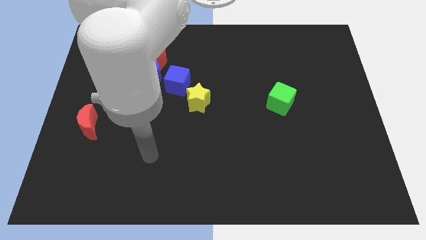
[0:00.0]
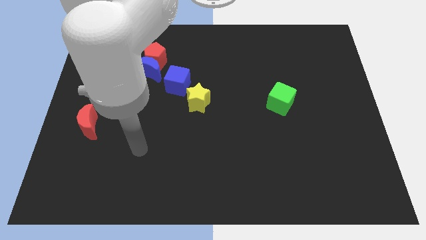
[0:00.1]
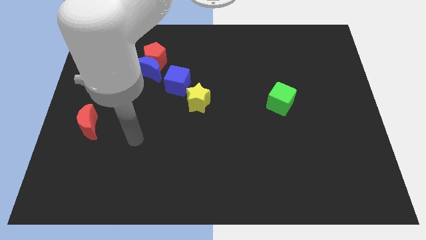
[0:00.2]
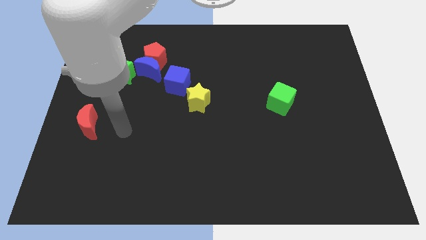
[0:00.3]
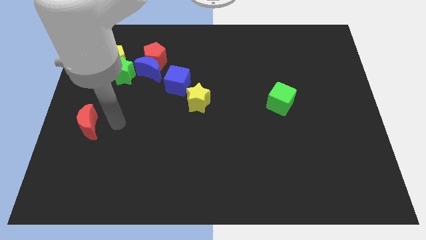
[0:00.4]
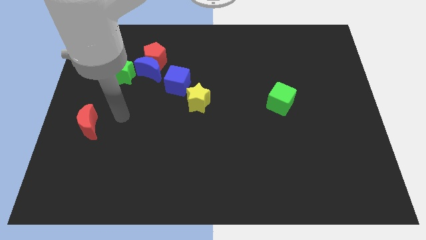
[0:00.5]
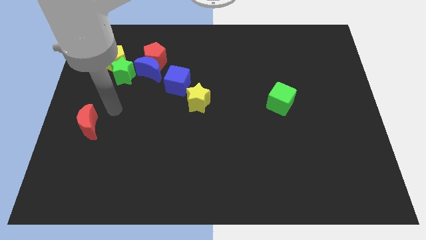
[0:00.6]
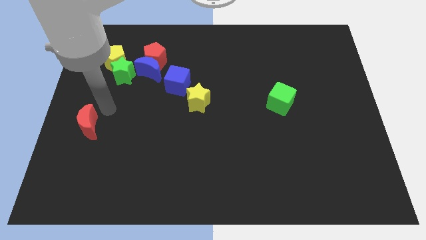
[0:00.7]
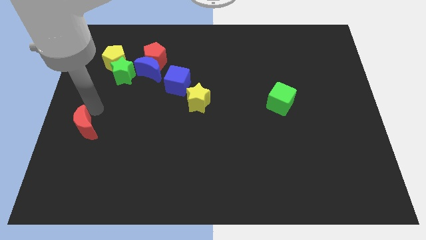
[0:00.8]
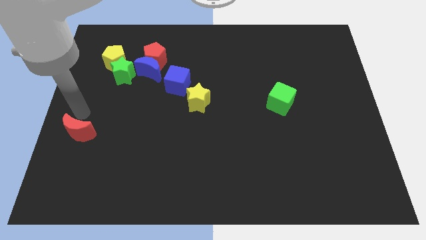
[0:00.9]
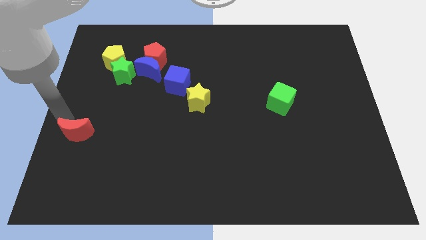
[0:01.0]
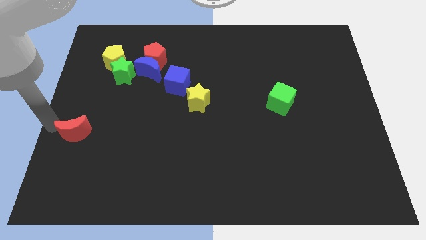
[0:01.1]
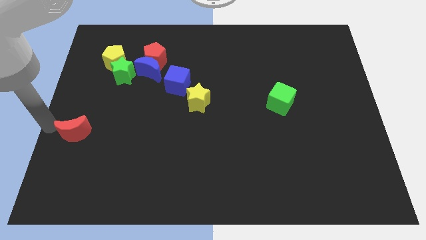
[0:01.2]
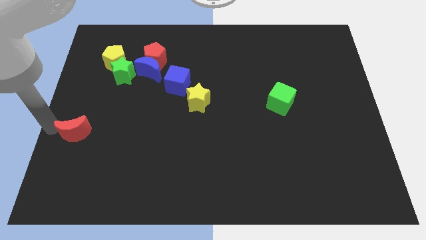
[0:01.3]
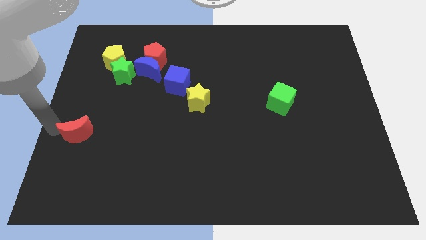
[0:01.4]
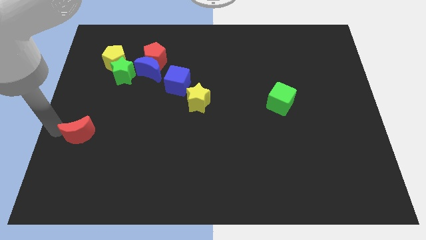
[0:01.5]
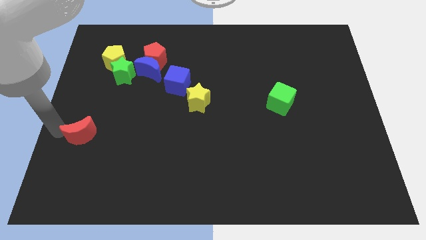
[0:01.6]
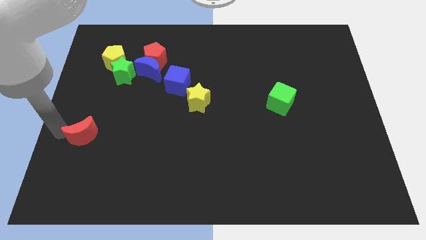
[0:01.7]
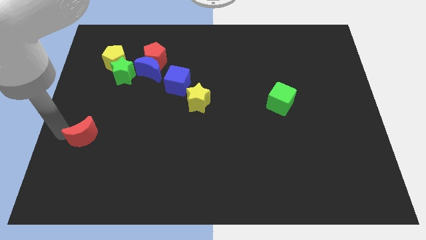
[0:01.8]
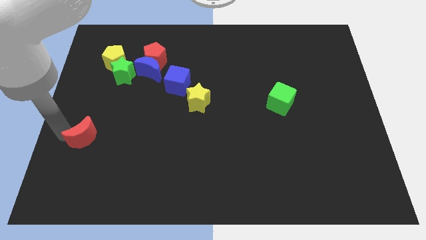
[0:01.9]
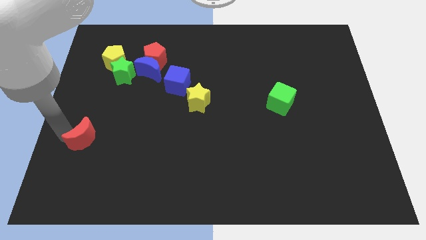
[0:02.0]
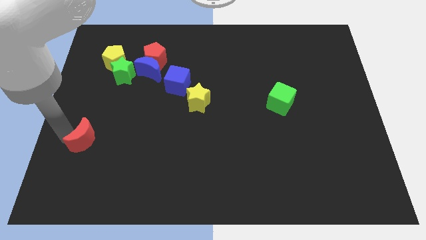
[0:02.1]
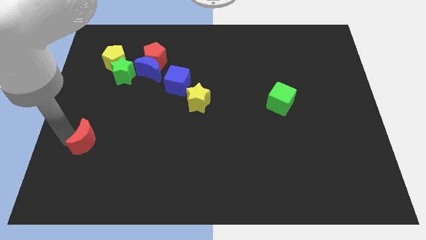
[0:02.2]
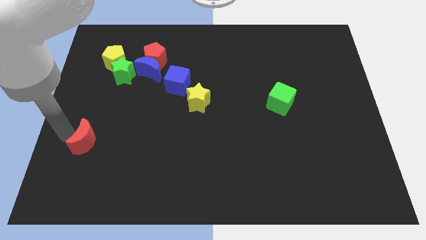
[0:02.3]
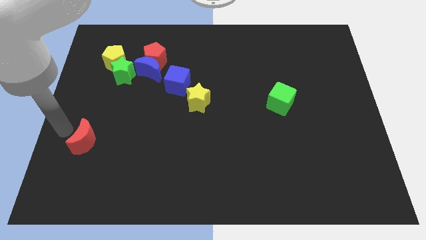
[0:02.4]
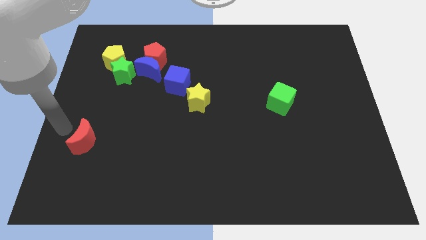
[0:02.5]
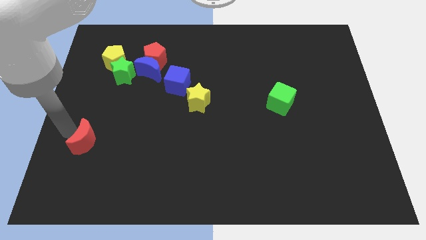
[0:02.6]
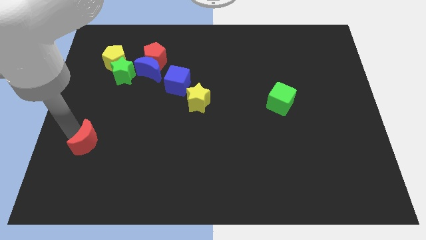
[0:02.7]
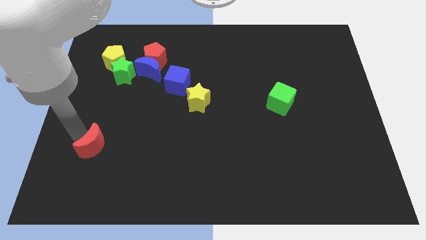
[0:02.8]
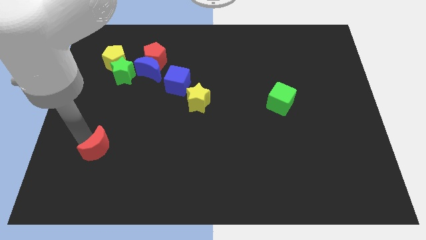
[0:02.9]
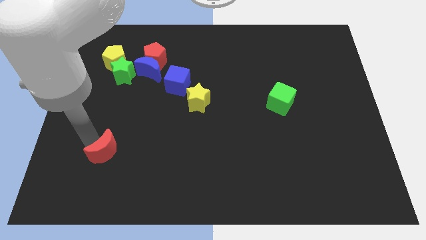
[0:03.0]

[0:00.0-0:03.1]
slightly slide the red moon down and then to the right

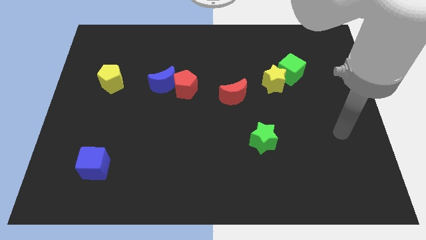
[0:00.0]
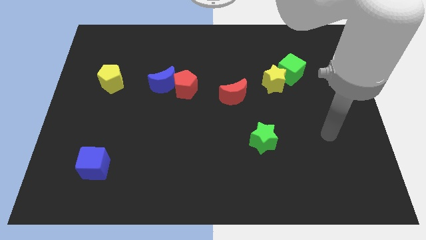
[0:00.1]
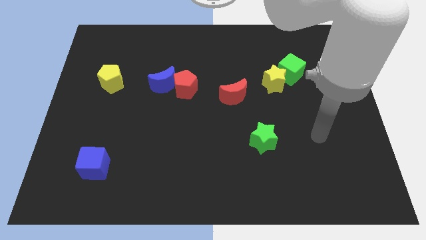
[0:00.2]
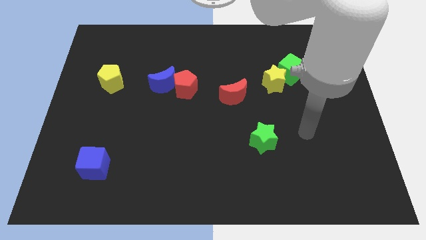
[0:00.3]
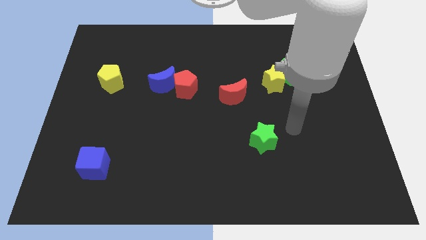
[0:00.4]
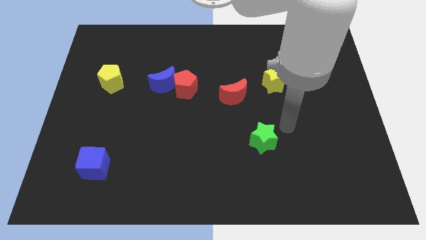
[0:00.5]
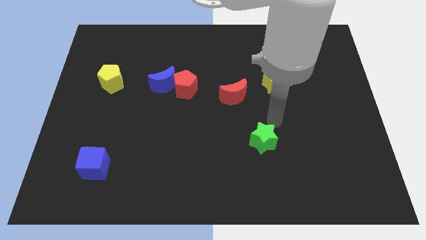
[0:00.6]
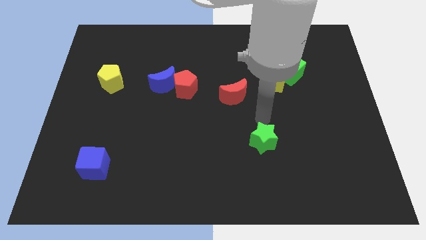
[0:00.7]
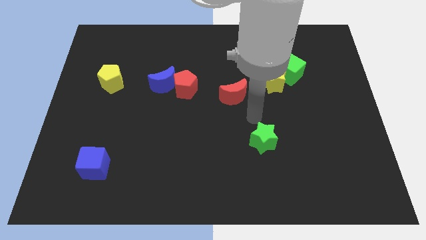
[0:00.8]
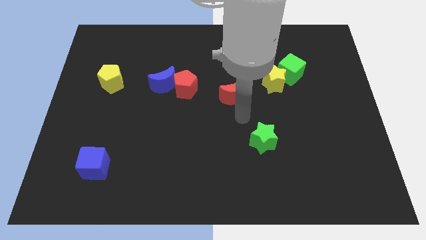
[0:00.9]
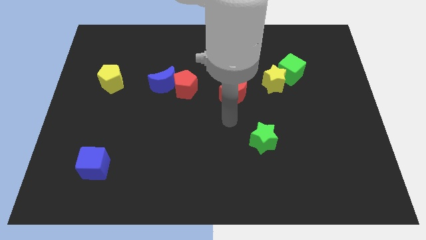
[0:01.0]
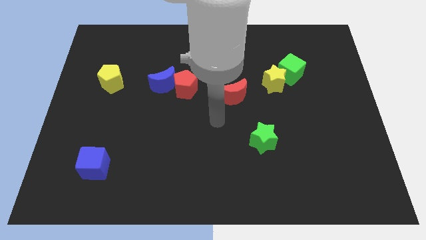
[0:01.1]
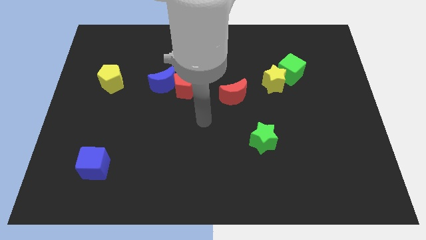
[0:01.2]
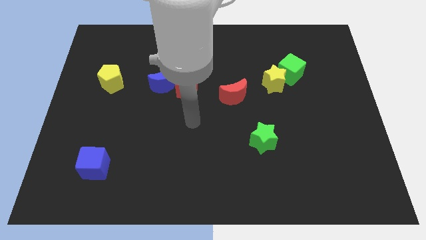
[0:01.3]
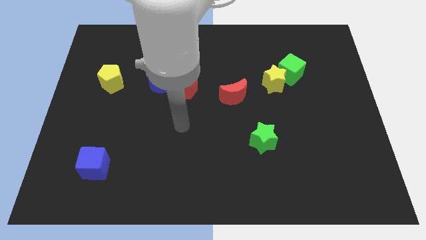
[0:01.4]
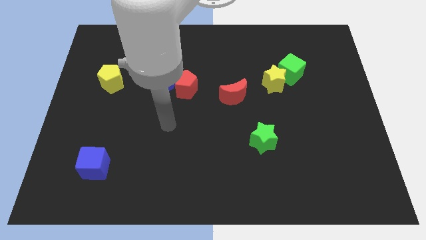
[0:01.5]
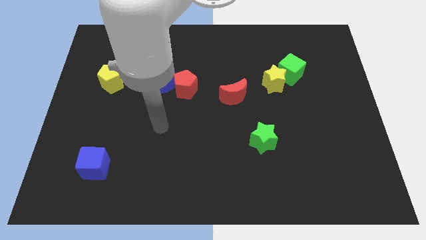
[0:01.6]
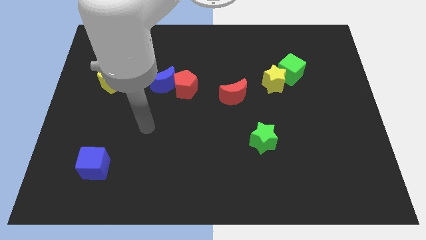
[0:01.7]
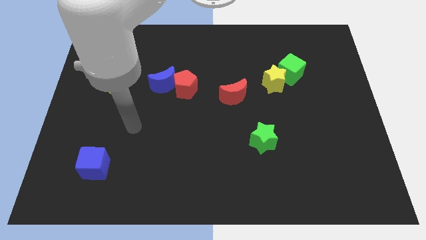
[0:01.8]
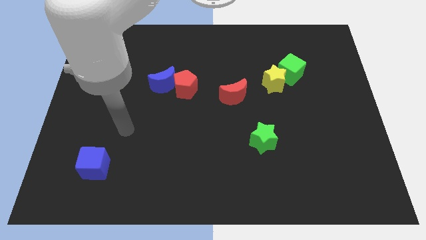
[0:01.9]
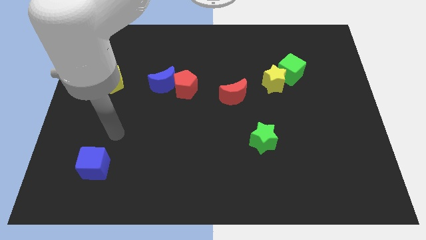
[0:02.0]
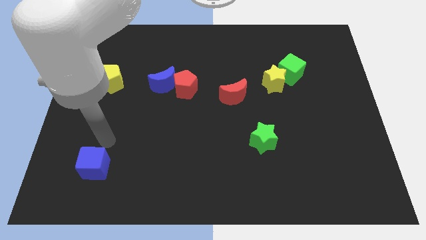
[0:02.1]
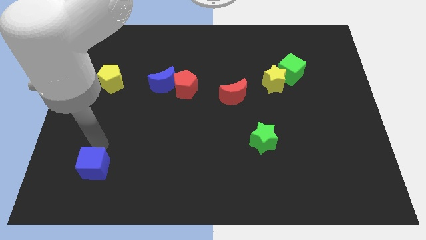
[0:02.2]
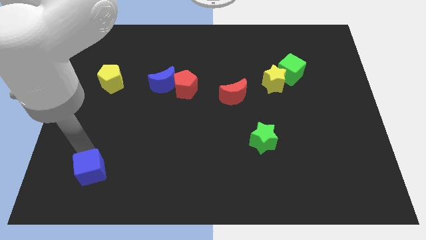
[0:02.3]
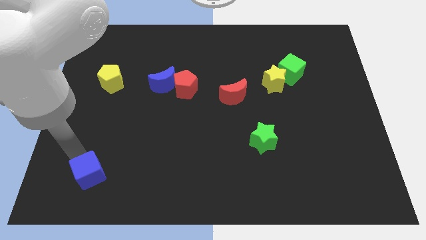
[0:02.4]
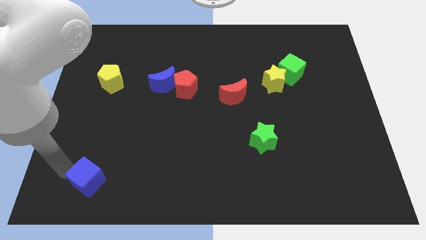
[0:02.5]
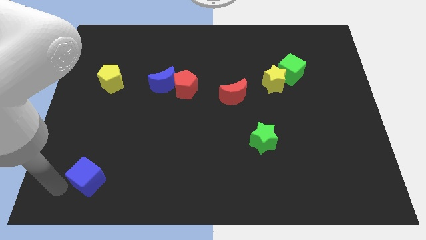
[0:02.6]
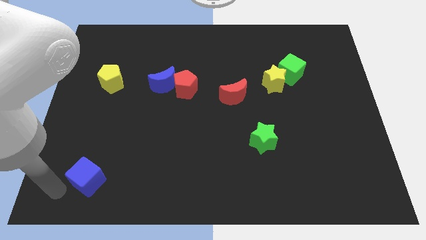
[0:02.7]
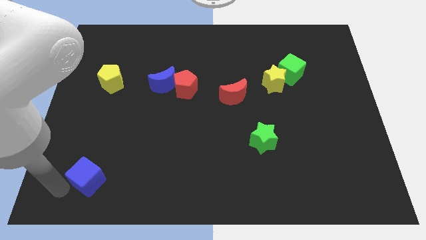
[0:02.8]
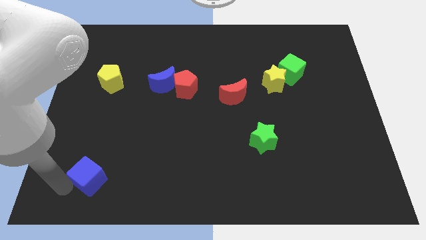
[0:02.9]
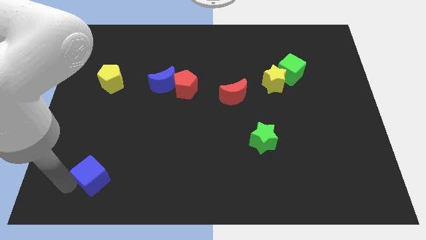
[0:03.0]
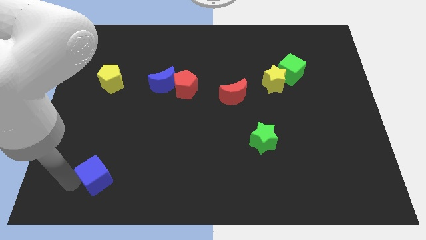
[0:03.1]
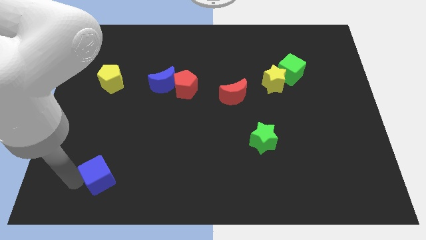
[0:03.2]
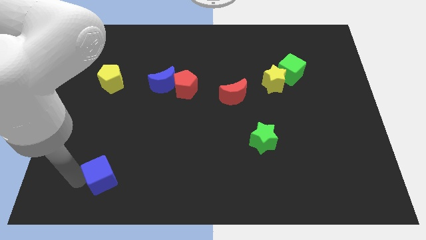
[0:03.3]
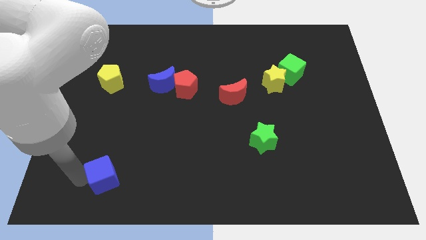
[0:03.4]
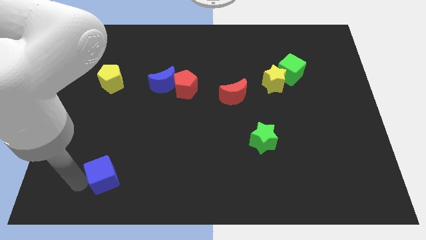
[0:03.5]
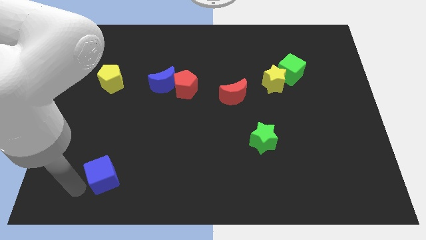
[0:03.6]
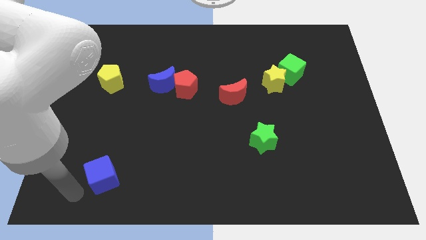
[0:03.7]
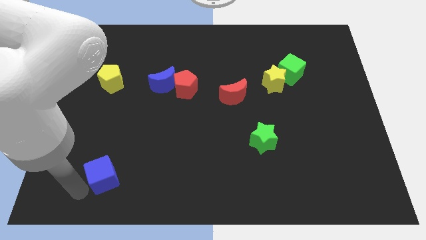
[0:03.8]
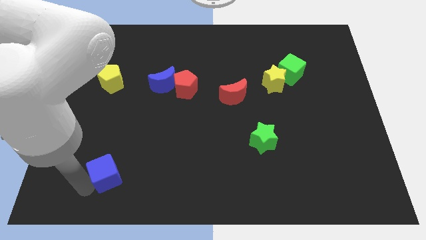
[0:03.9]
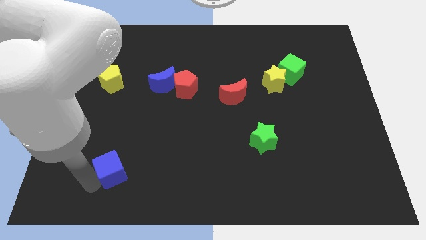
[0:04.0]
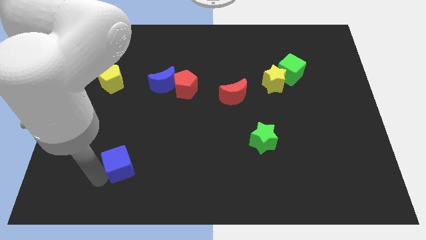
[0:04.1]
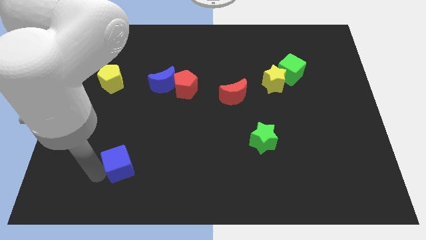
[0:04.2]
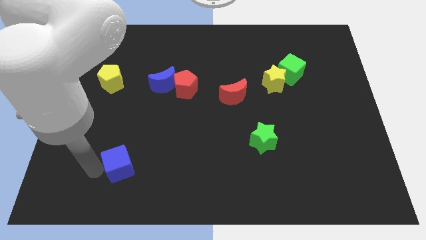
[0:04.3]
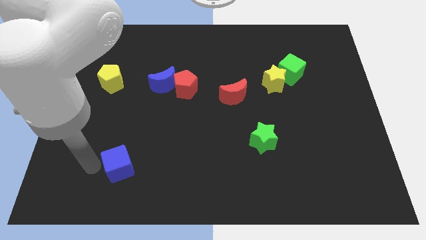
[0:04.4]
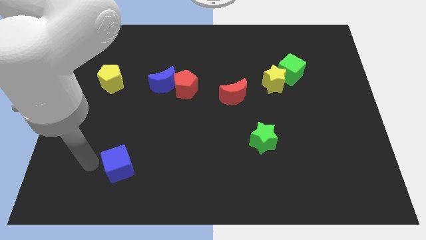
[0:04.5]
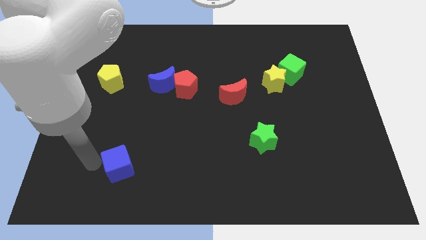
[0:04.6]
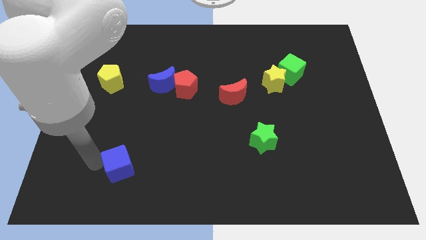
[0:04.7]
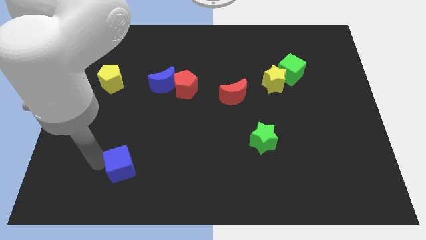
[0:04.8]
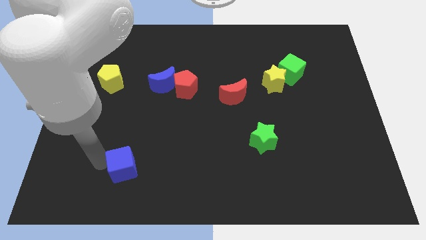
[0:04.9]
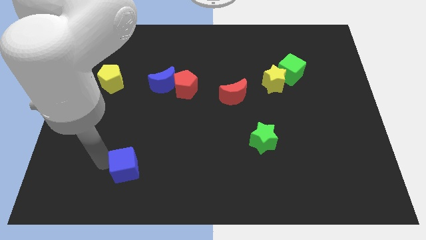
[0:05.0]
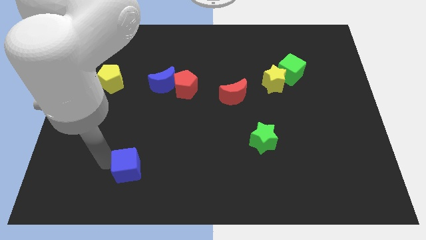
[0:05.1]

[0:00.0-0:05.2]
push the blue cube somewhat to the right

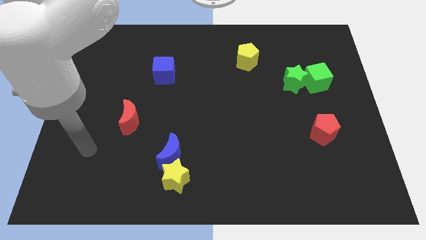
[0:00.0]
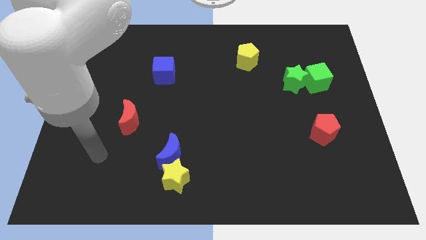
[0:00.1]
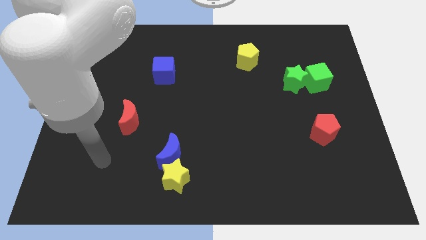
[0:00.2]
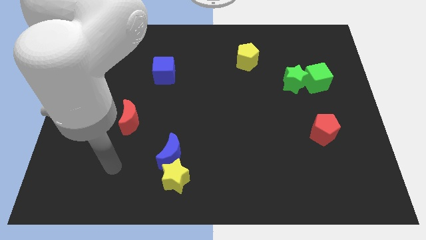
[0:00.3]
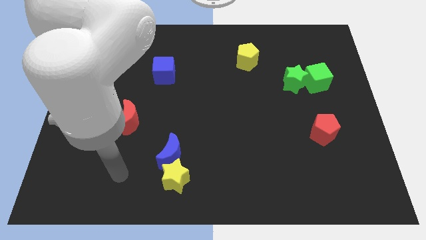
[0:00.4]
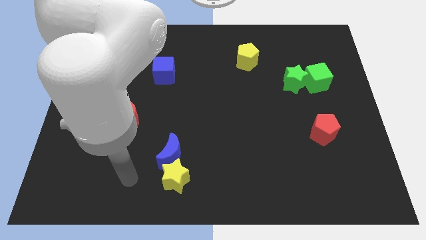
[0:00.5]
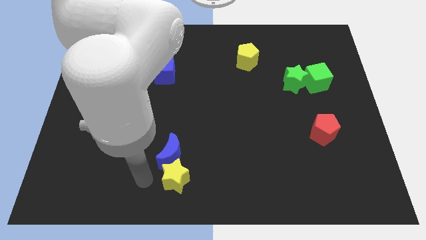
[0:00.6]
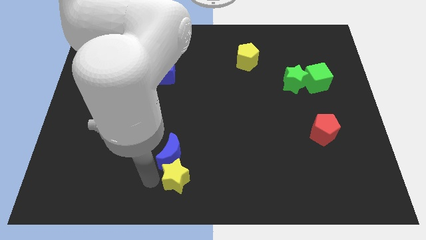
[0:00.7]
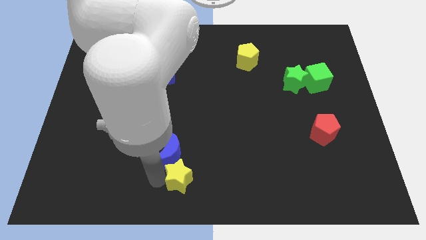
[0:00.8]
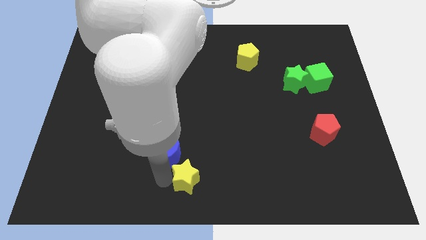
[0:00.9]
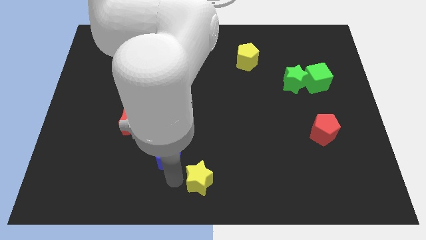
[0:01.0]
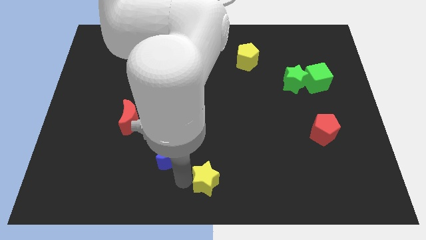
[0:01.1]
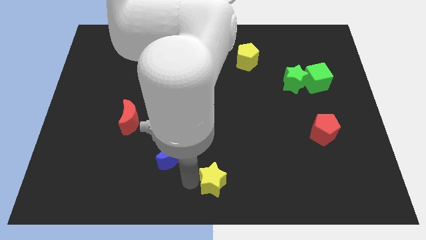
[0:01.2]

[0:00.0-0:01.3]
move the yellow star somewhat right
